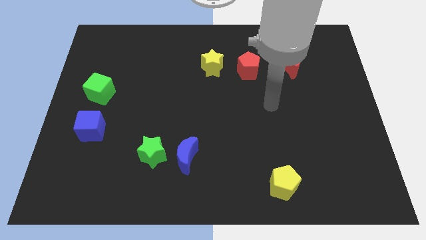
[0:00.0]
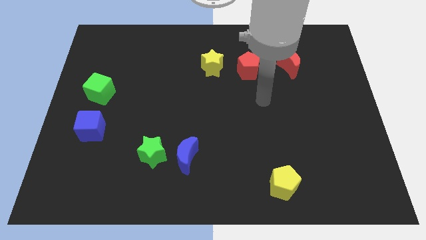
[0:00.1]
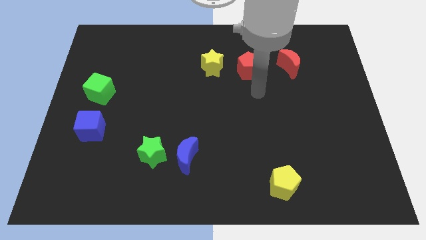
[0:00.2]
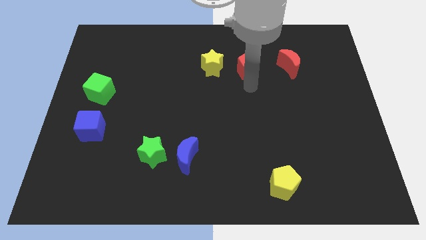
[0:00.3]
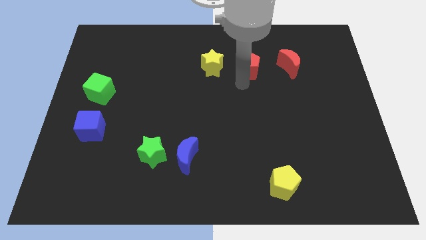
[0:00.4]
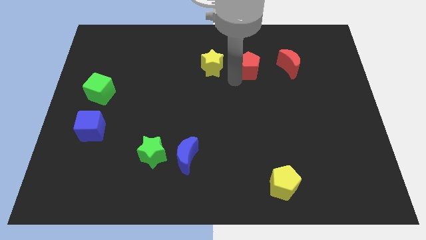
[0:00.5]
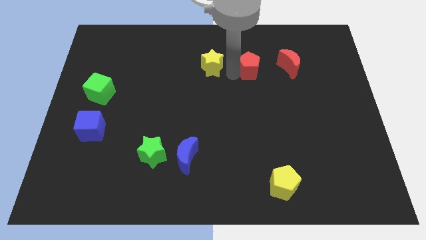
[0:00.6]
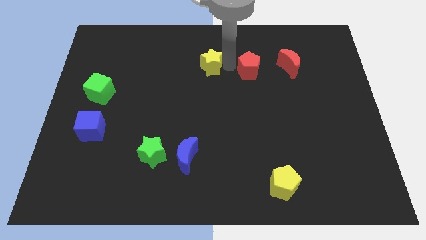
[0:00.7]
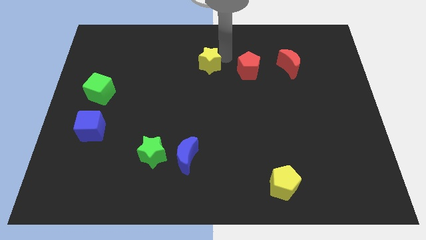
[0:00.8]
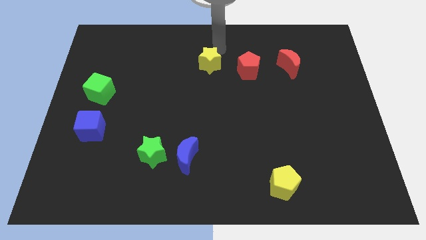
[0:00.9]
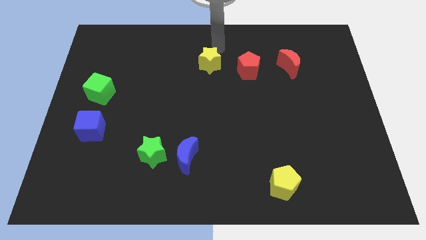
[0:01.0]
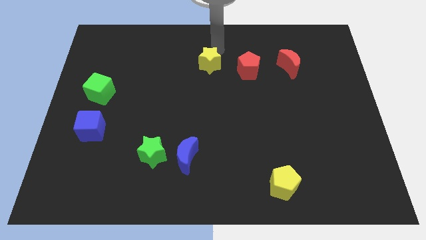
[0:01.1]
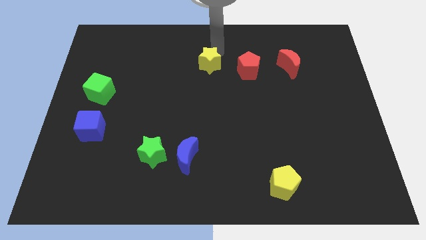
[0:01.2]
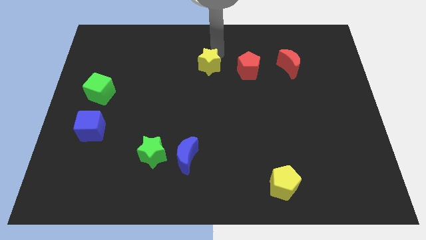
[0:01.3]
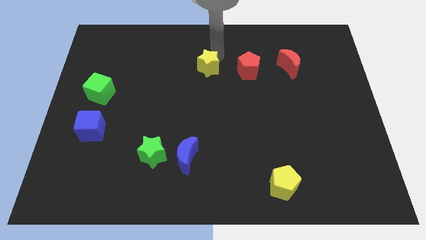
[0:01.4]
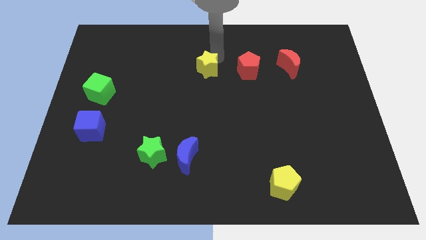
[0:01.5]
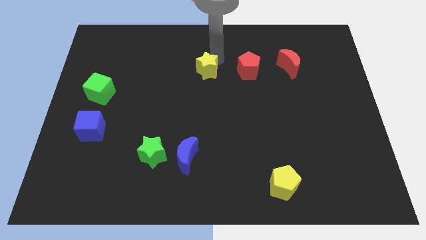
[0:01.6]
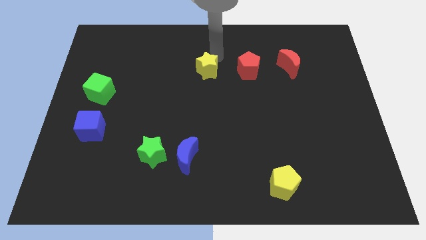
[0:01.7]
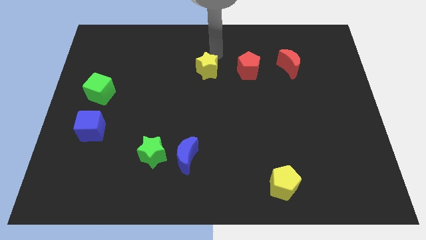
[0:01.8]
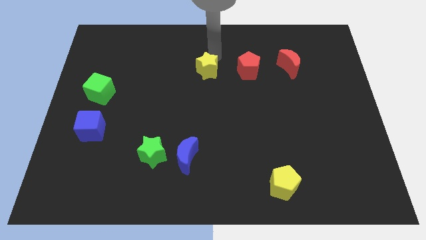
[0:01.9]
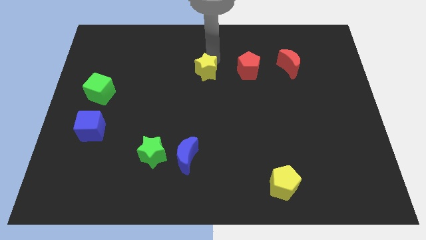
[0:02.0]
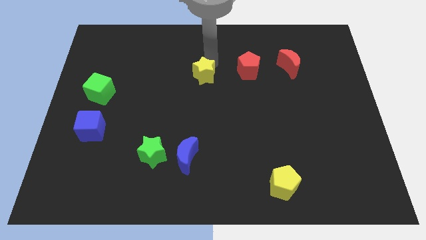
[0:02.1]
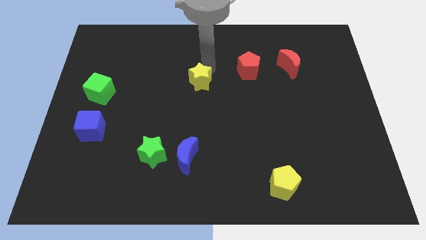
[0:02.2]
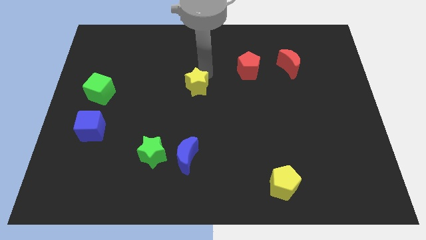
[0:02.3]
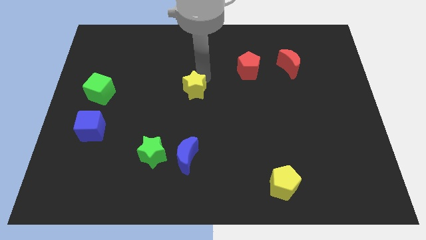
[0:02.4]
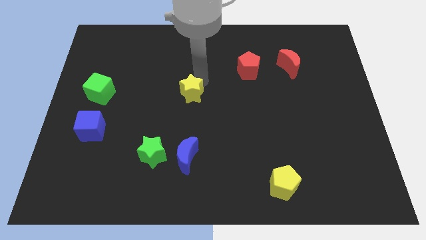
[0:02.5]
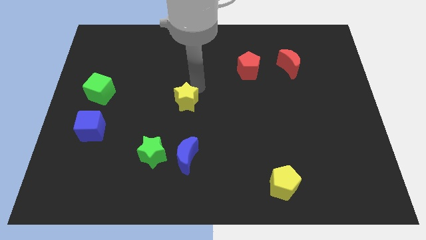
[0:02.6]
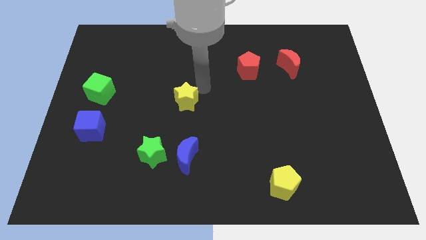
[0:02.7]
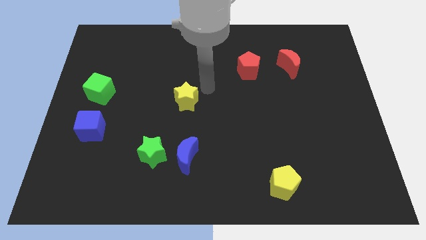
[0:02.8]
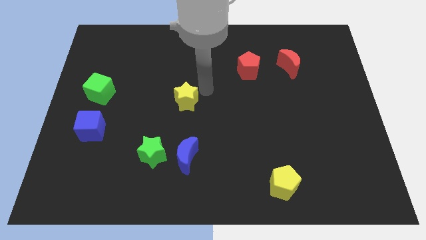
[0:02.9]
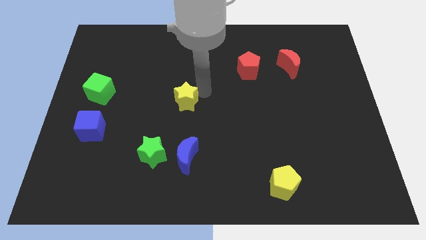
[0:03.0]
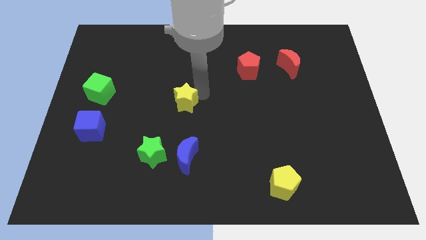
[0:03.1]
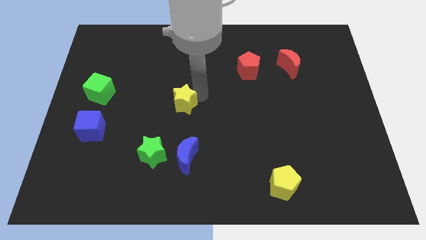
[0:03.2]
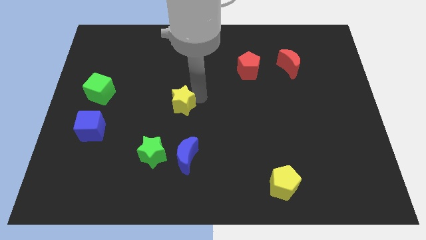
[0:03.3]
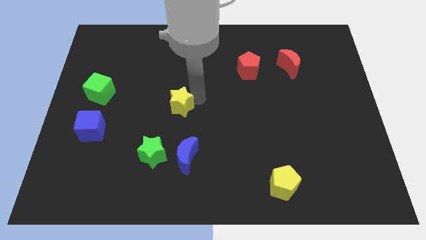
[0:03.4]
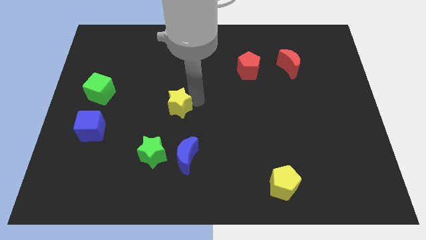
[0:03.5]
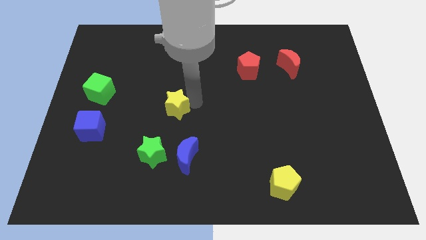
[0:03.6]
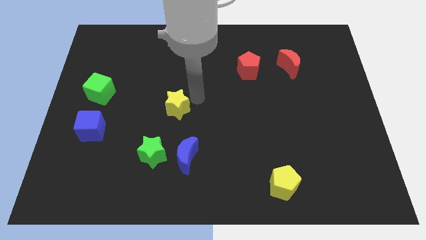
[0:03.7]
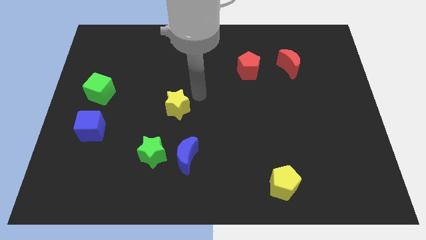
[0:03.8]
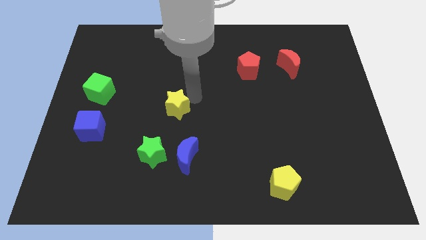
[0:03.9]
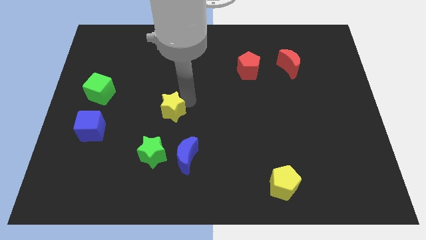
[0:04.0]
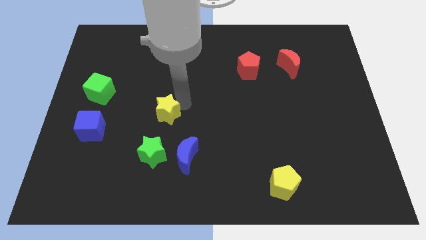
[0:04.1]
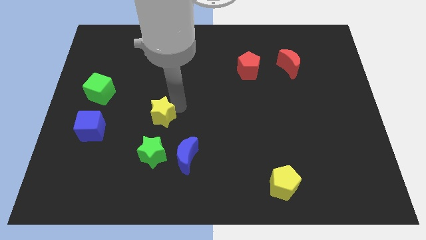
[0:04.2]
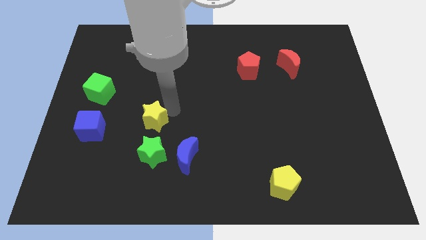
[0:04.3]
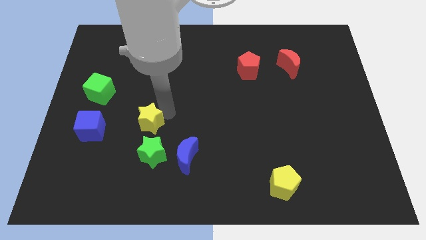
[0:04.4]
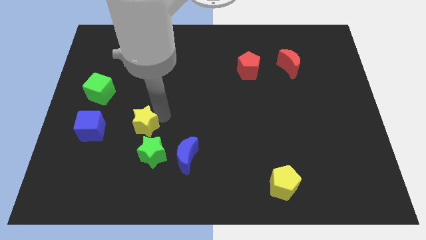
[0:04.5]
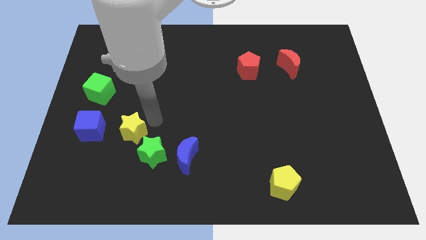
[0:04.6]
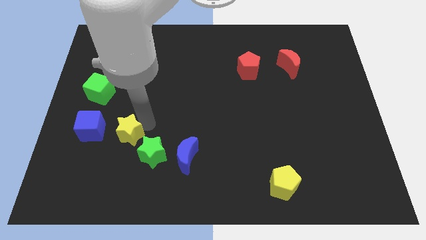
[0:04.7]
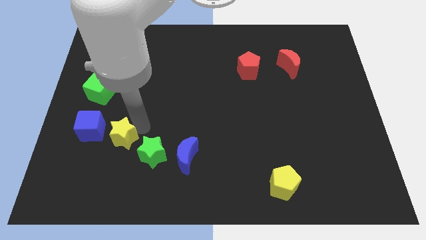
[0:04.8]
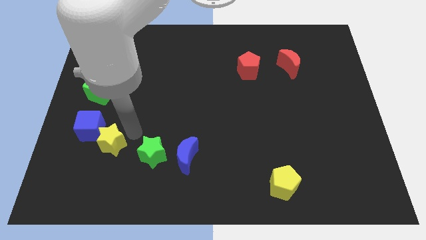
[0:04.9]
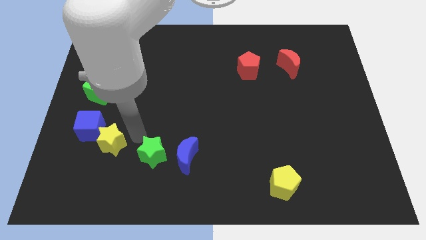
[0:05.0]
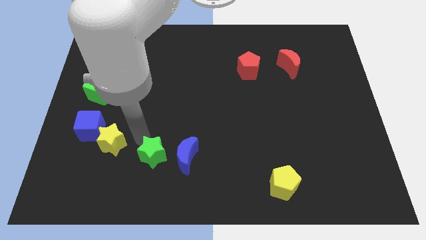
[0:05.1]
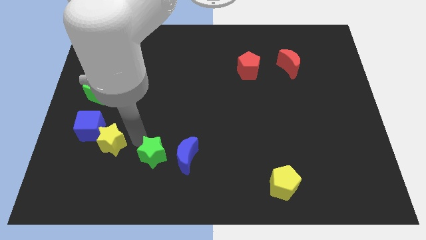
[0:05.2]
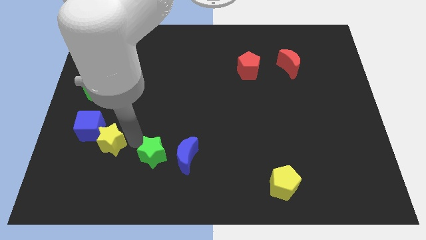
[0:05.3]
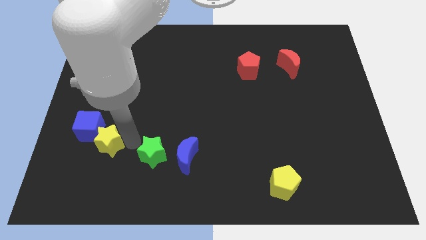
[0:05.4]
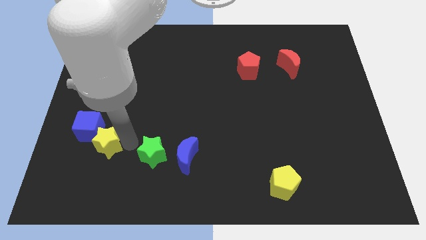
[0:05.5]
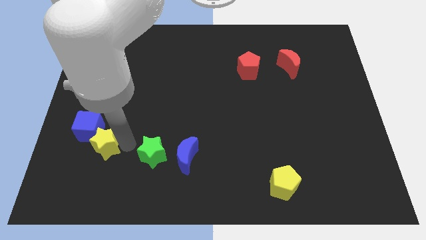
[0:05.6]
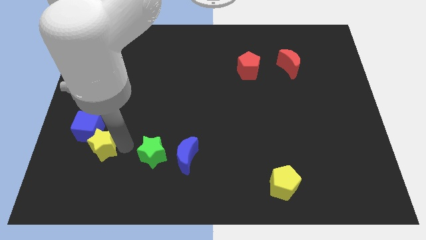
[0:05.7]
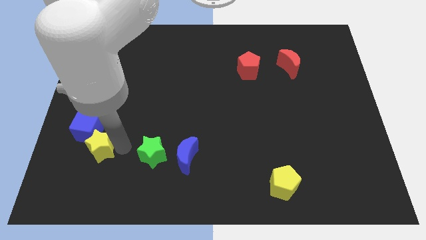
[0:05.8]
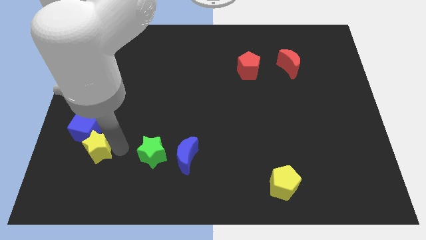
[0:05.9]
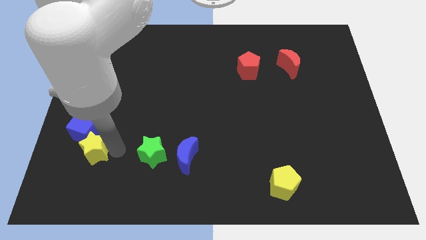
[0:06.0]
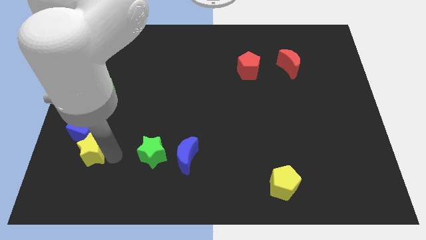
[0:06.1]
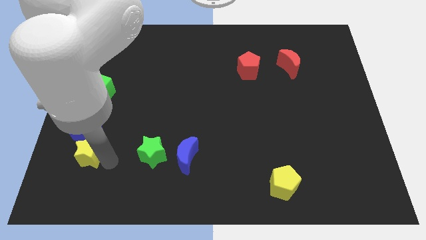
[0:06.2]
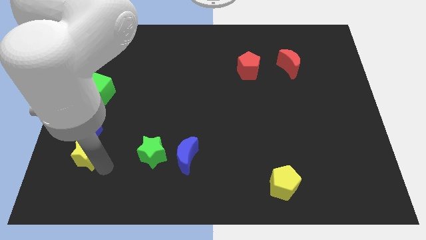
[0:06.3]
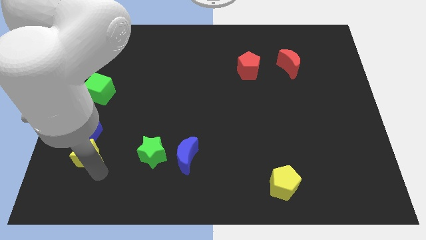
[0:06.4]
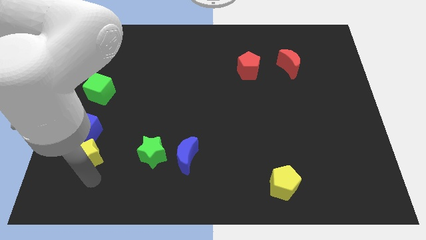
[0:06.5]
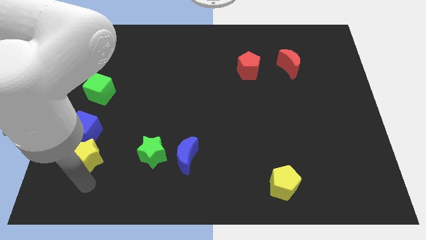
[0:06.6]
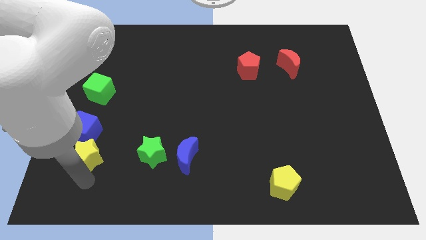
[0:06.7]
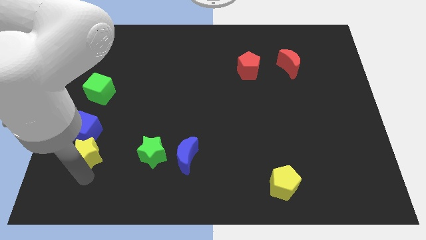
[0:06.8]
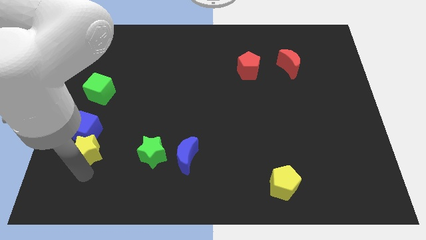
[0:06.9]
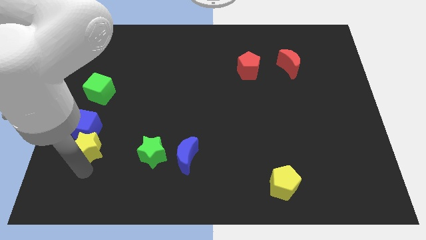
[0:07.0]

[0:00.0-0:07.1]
move the yellow star to the bottom of the green cube
